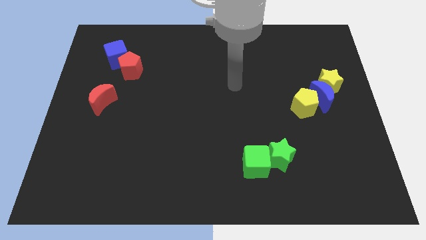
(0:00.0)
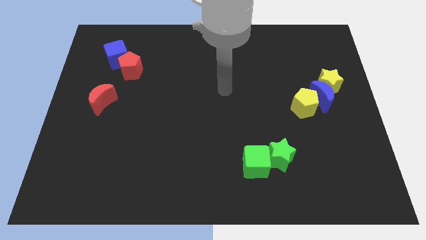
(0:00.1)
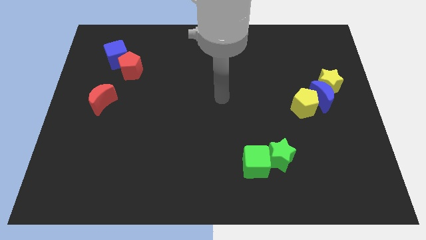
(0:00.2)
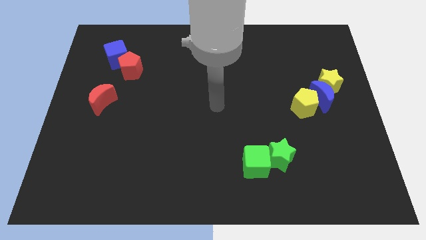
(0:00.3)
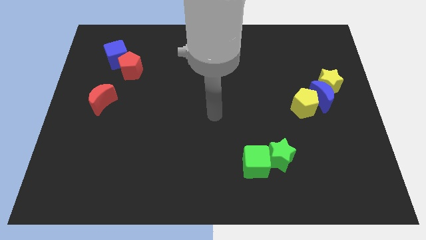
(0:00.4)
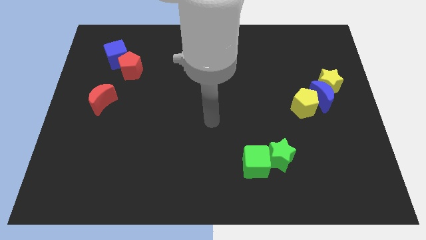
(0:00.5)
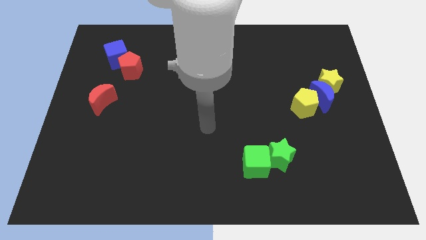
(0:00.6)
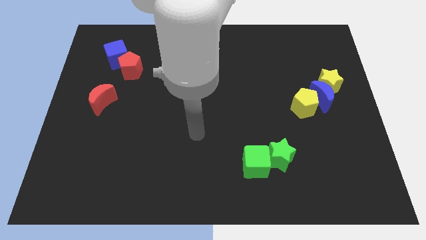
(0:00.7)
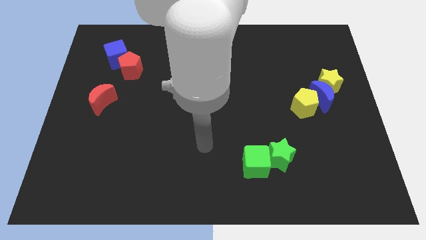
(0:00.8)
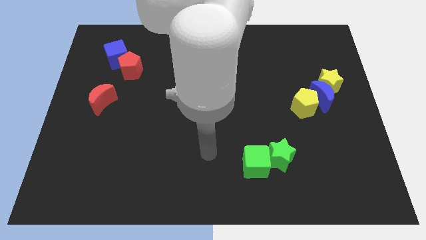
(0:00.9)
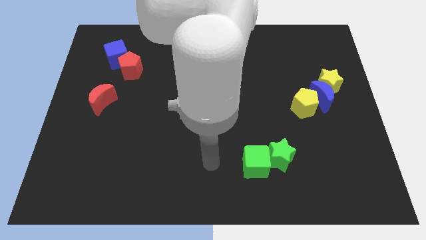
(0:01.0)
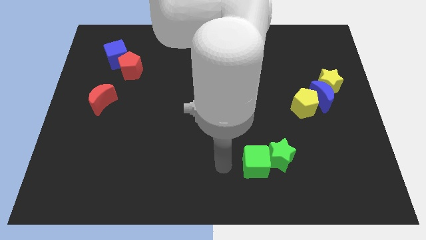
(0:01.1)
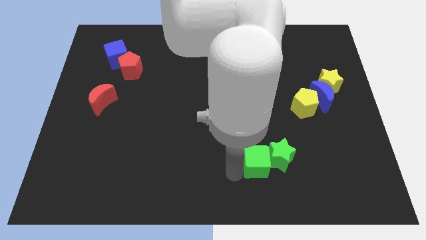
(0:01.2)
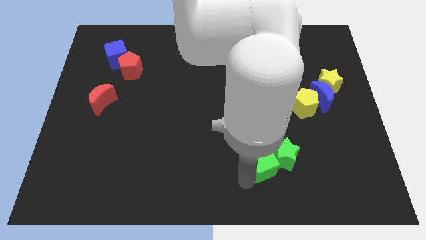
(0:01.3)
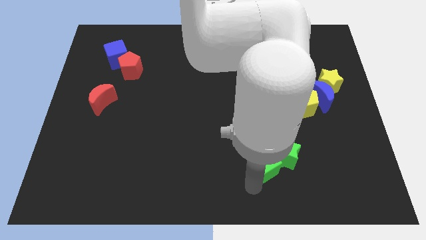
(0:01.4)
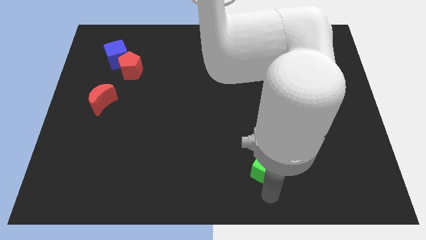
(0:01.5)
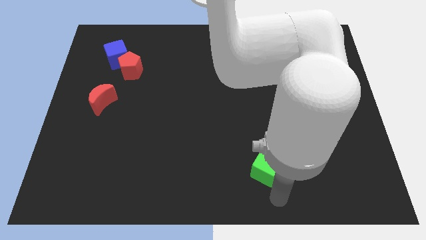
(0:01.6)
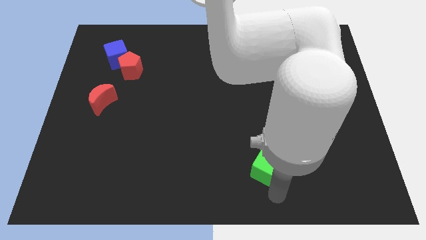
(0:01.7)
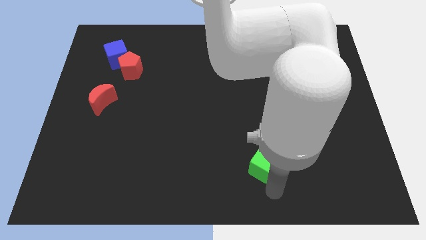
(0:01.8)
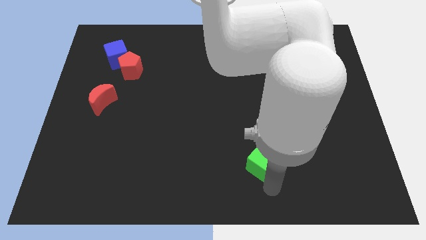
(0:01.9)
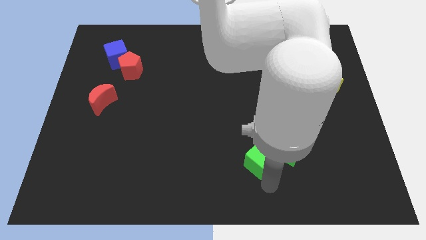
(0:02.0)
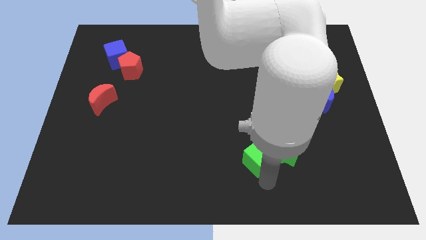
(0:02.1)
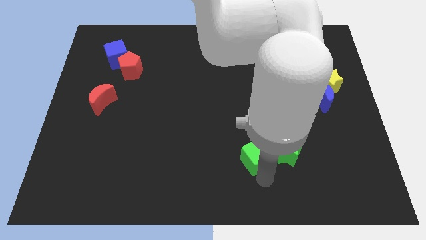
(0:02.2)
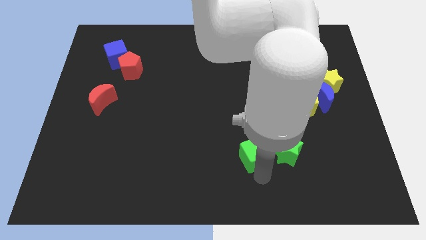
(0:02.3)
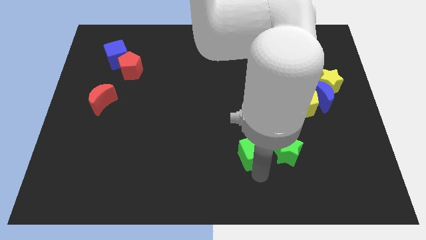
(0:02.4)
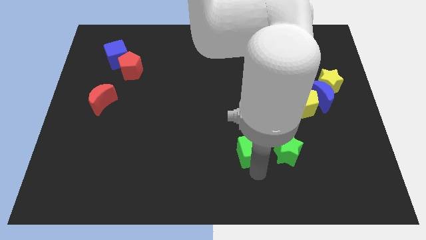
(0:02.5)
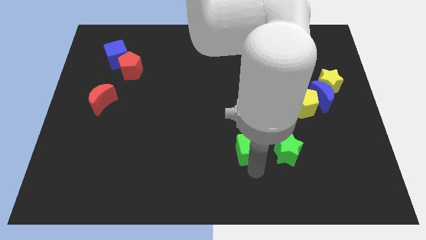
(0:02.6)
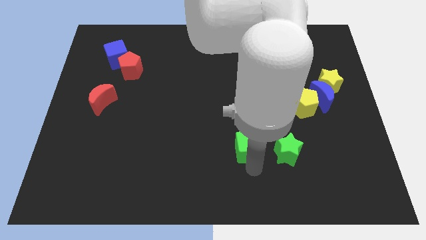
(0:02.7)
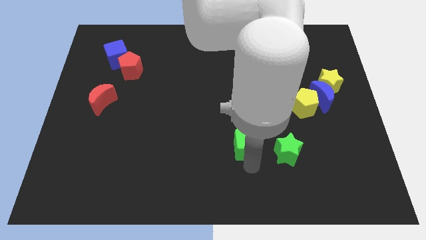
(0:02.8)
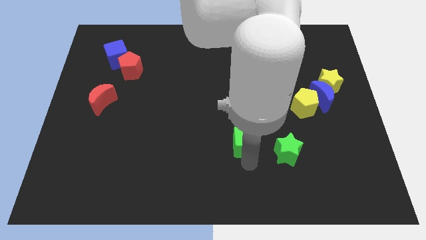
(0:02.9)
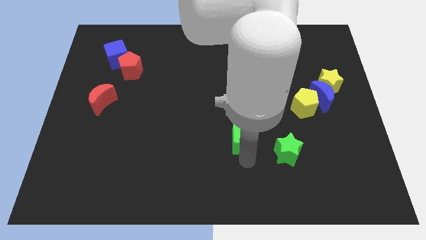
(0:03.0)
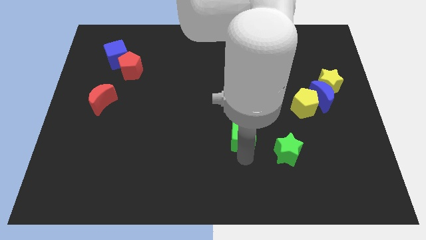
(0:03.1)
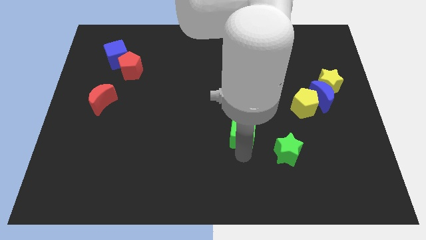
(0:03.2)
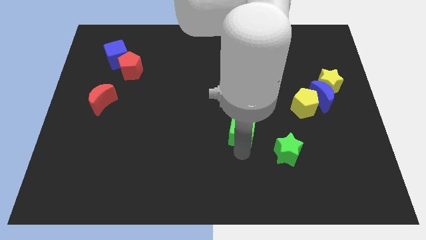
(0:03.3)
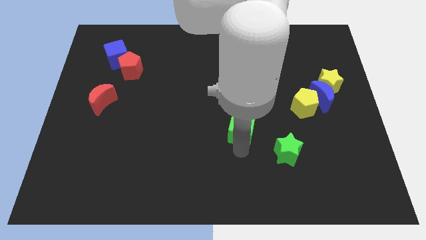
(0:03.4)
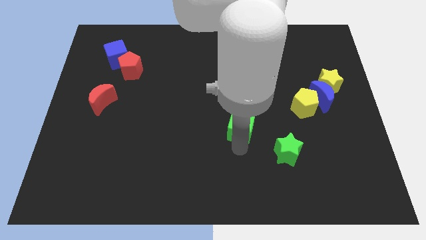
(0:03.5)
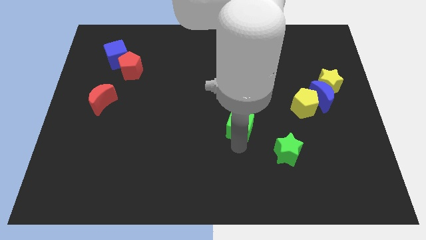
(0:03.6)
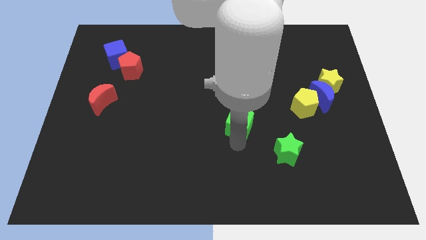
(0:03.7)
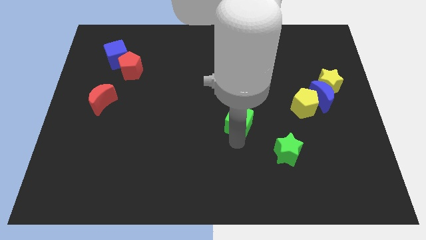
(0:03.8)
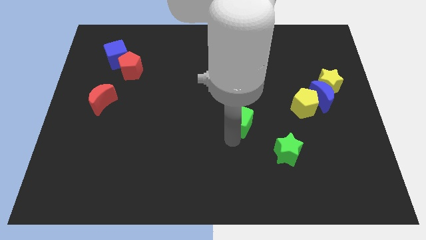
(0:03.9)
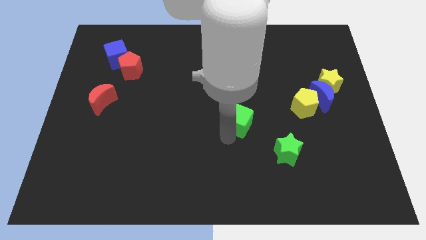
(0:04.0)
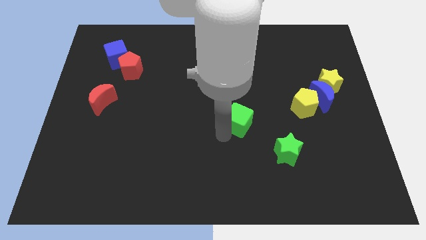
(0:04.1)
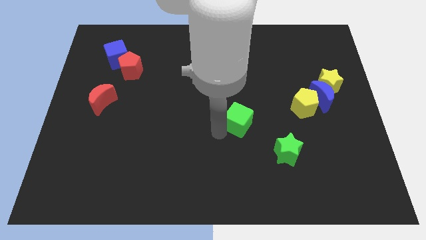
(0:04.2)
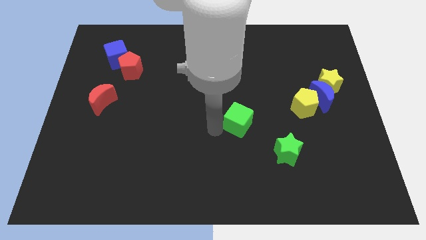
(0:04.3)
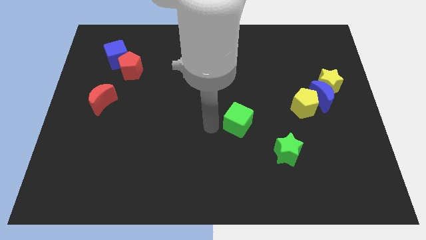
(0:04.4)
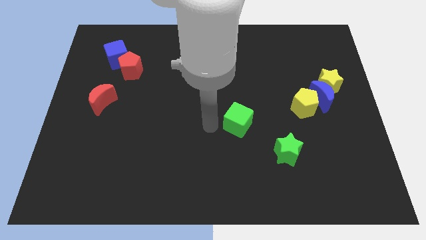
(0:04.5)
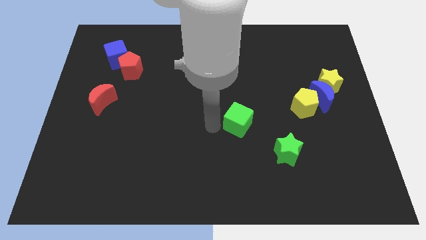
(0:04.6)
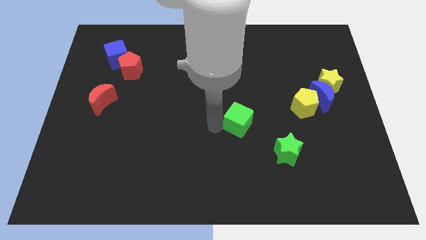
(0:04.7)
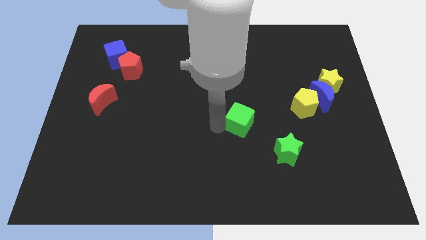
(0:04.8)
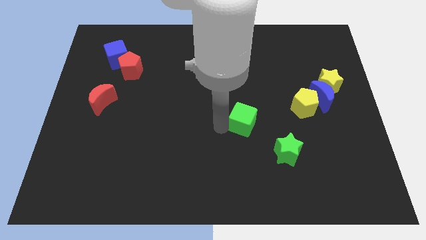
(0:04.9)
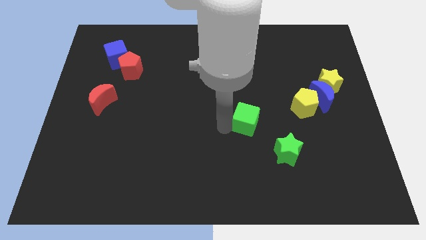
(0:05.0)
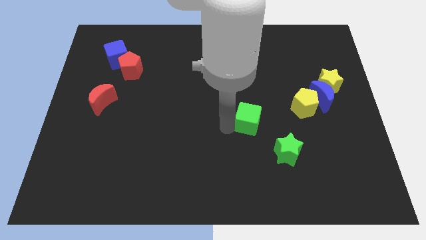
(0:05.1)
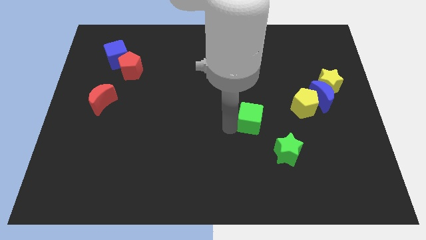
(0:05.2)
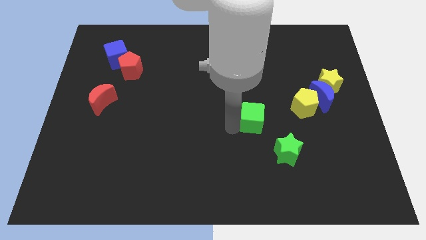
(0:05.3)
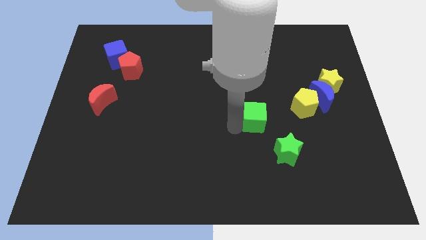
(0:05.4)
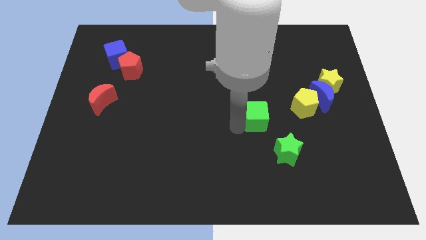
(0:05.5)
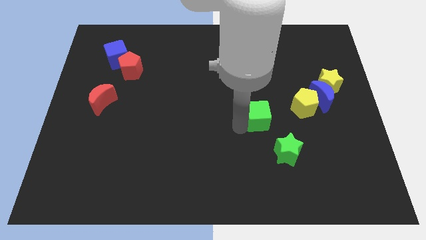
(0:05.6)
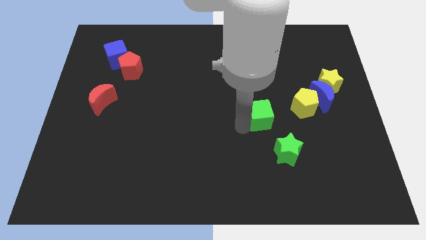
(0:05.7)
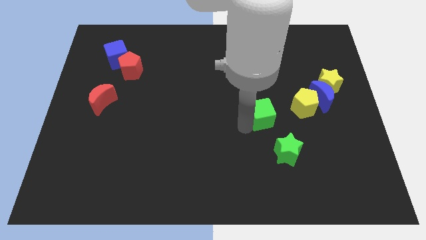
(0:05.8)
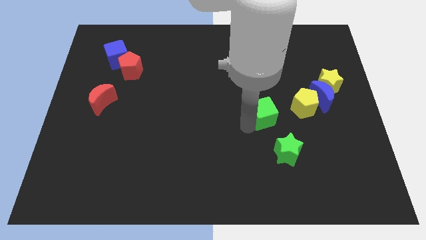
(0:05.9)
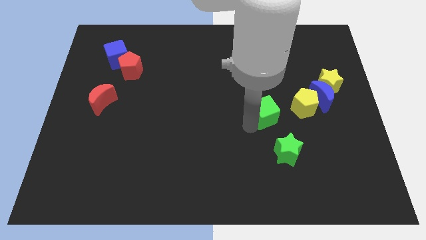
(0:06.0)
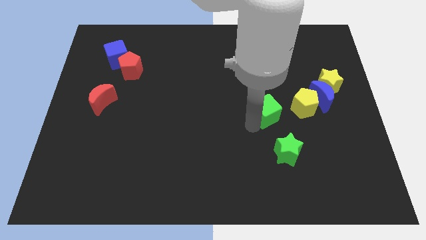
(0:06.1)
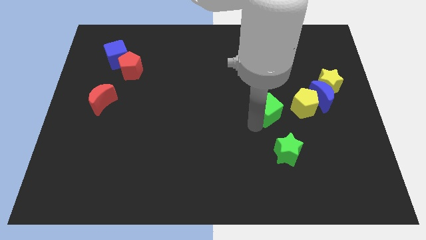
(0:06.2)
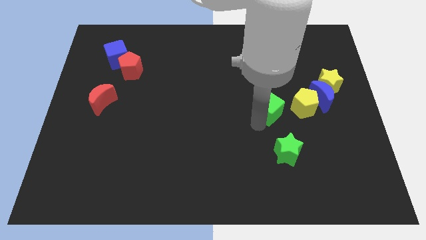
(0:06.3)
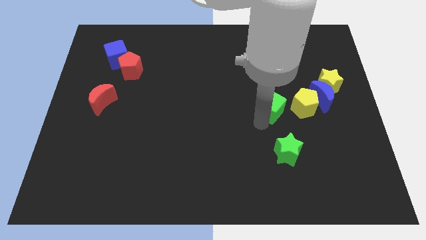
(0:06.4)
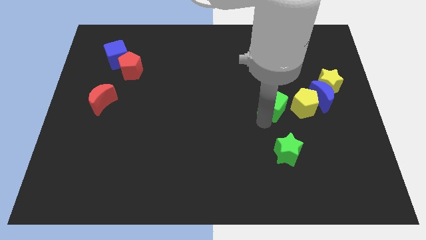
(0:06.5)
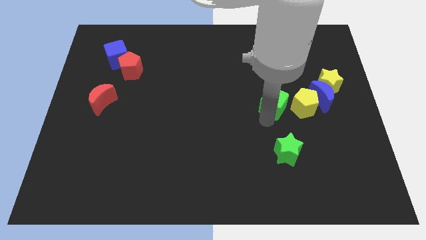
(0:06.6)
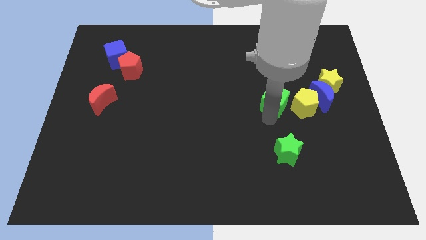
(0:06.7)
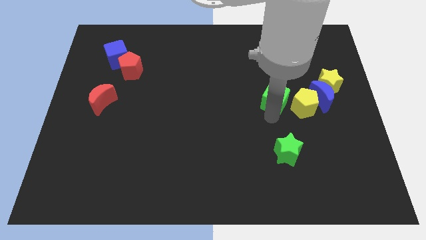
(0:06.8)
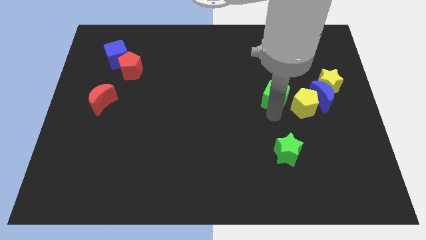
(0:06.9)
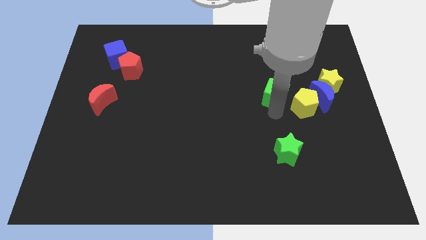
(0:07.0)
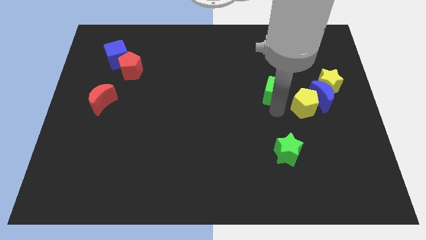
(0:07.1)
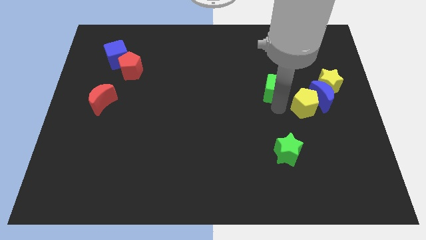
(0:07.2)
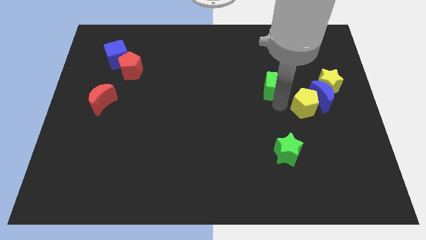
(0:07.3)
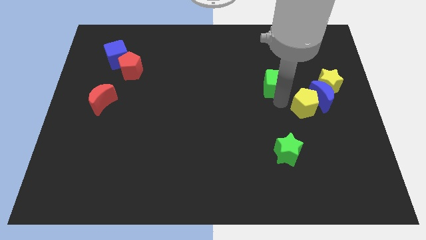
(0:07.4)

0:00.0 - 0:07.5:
move the green cube upwards

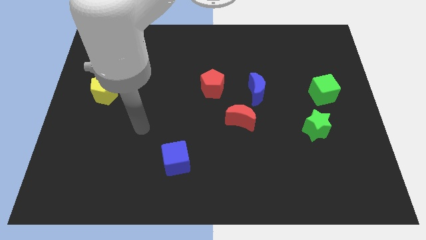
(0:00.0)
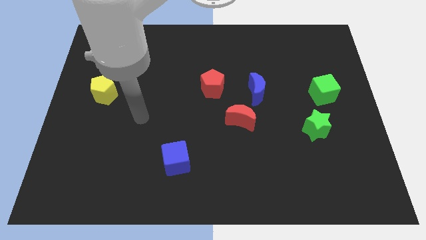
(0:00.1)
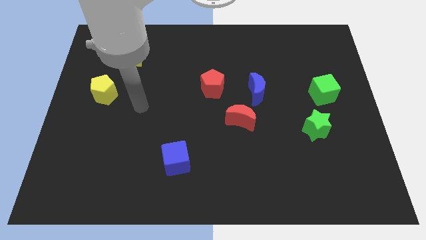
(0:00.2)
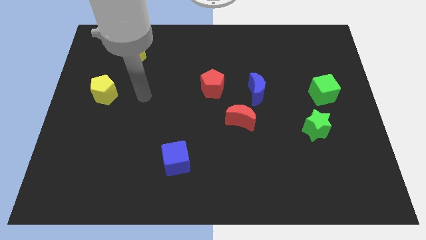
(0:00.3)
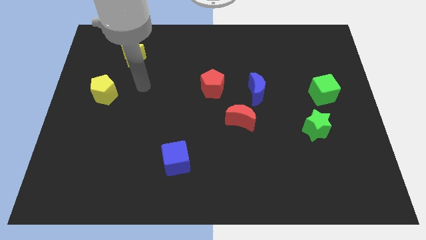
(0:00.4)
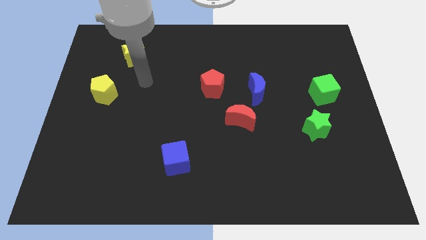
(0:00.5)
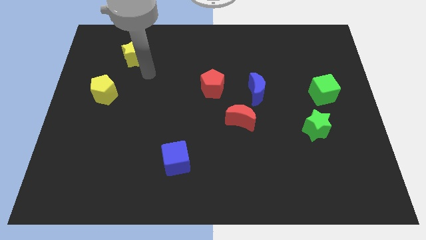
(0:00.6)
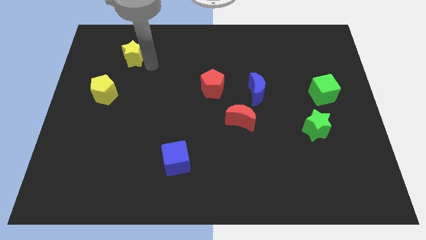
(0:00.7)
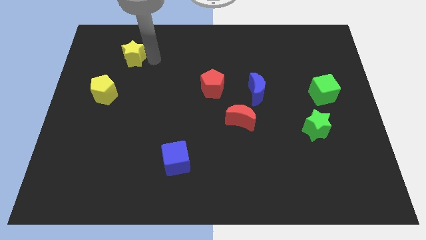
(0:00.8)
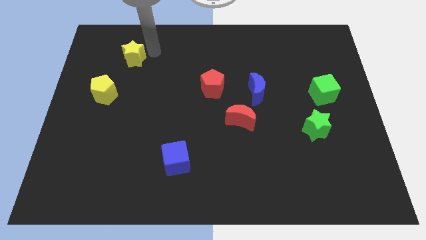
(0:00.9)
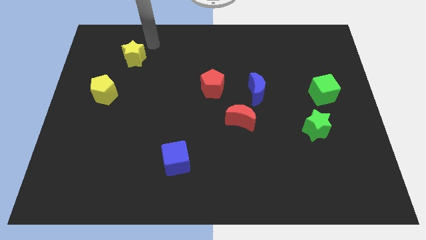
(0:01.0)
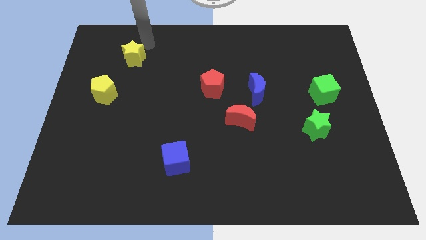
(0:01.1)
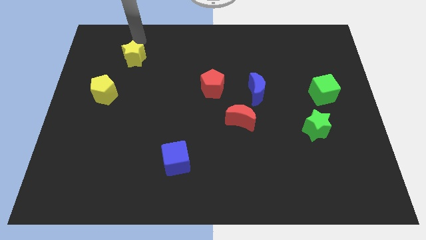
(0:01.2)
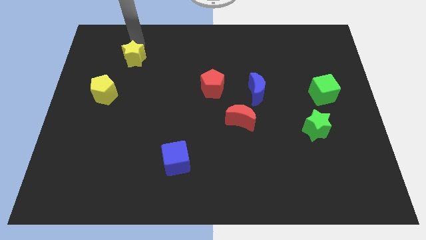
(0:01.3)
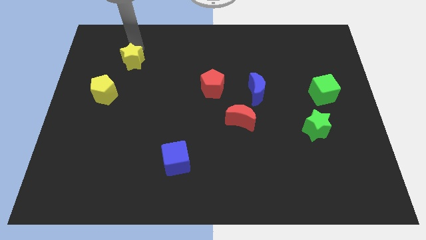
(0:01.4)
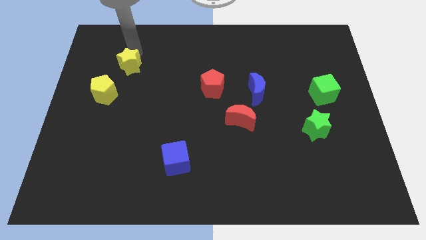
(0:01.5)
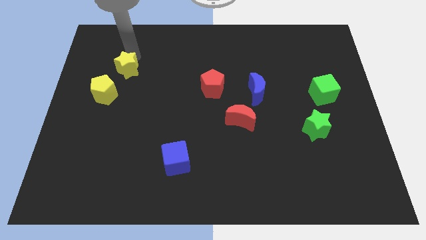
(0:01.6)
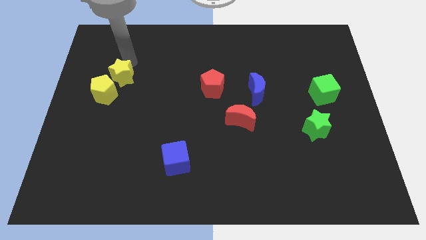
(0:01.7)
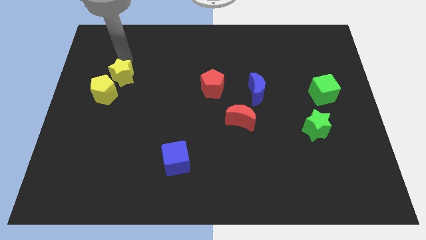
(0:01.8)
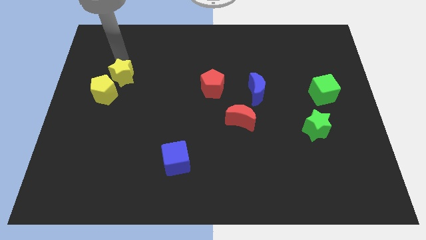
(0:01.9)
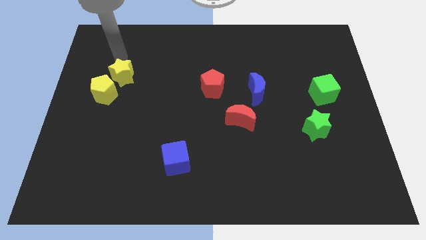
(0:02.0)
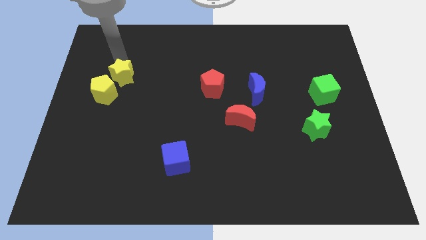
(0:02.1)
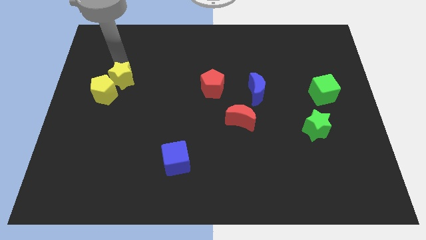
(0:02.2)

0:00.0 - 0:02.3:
slide the yellow star downwards a bit
